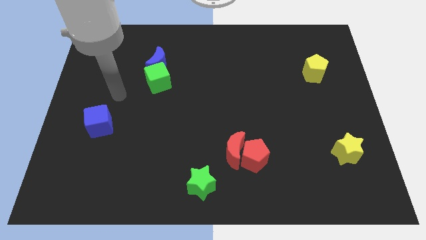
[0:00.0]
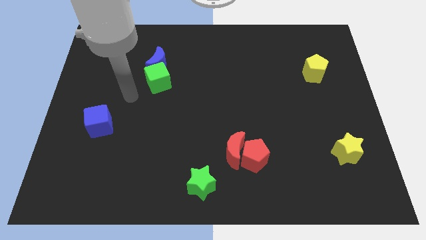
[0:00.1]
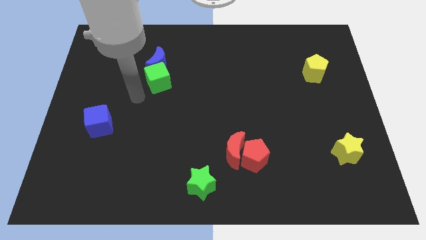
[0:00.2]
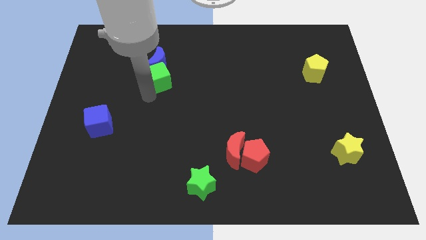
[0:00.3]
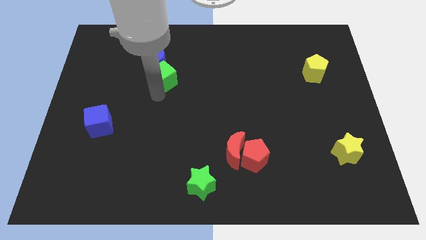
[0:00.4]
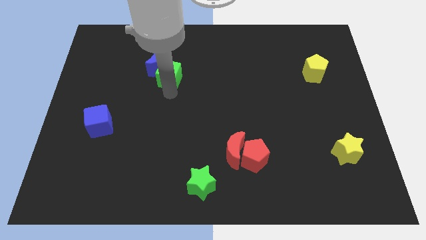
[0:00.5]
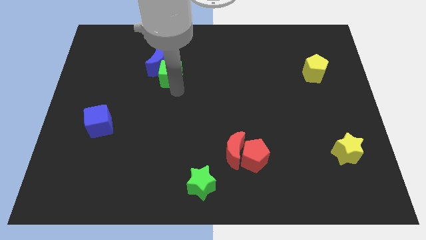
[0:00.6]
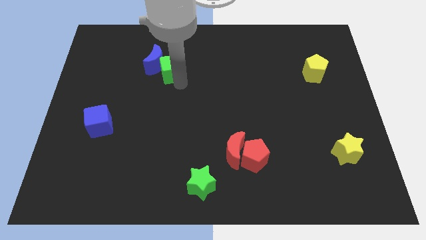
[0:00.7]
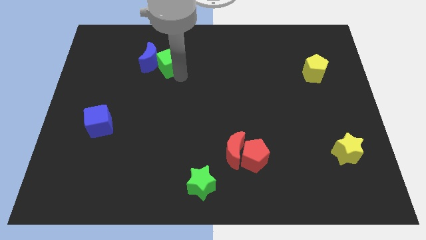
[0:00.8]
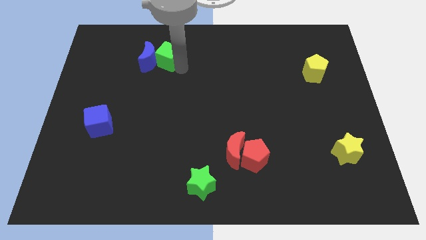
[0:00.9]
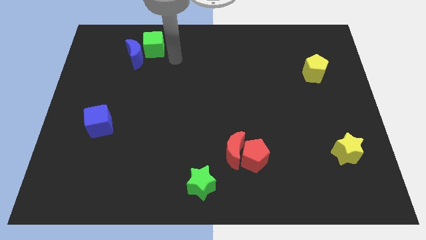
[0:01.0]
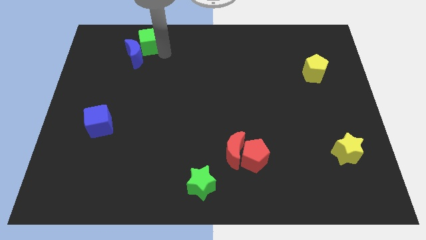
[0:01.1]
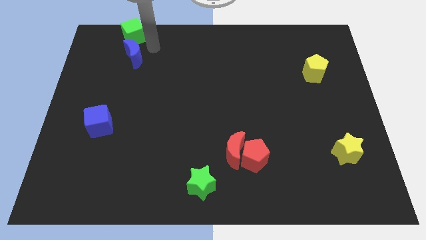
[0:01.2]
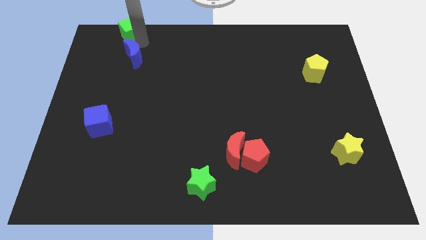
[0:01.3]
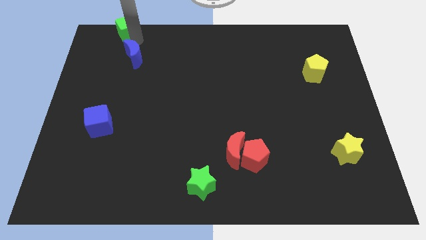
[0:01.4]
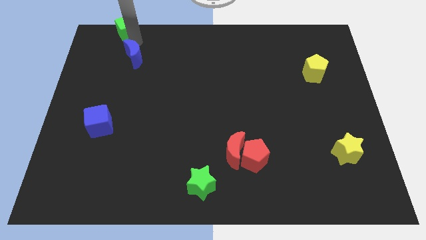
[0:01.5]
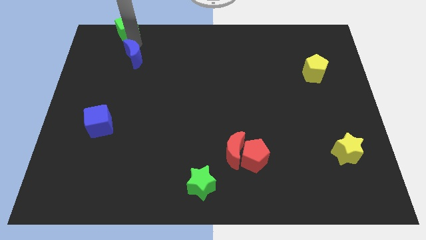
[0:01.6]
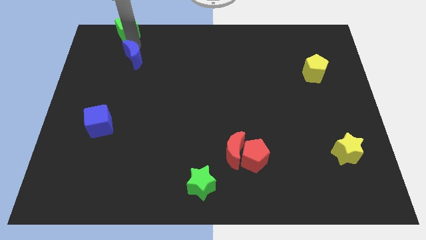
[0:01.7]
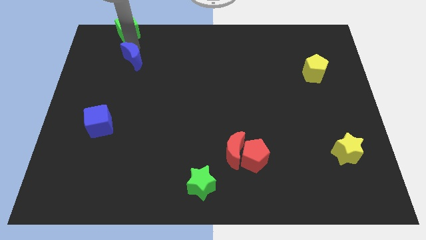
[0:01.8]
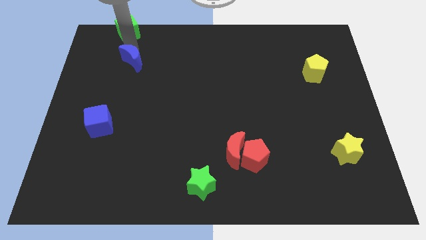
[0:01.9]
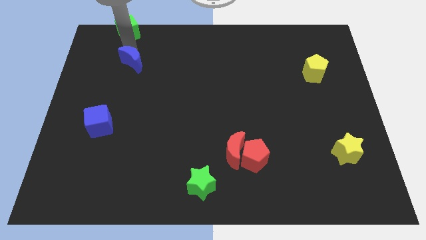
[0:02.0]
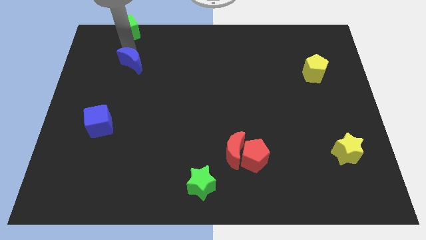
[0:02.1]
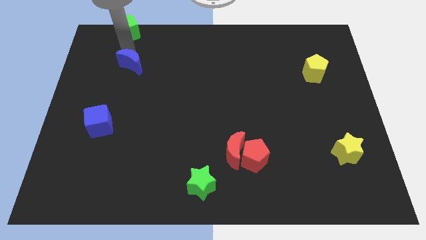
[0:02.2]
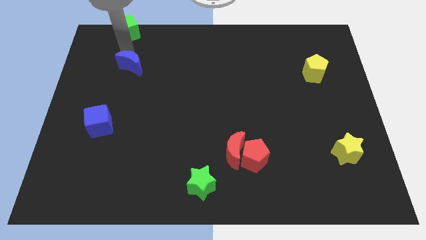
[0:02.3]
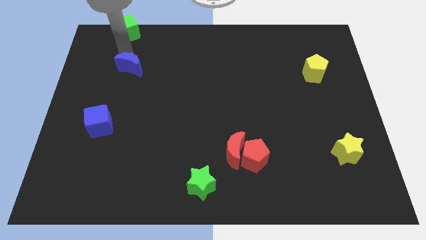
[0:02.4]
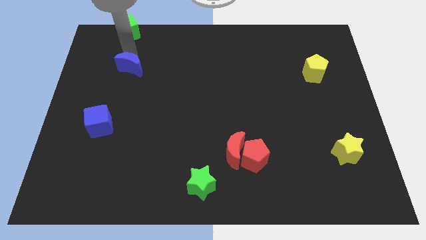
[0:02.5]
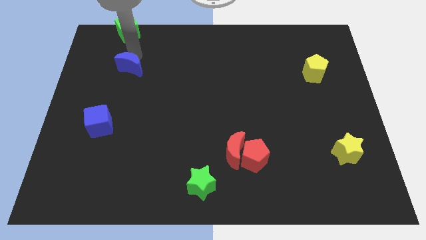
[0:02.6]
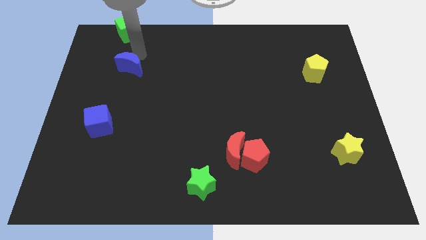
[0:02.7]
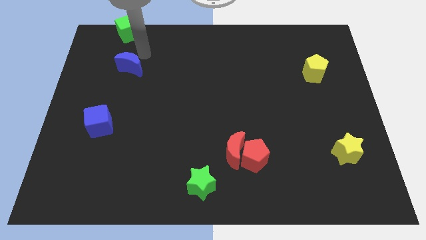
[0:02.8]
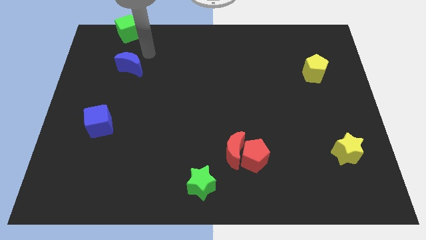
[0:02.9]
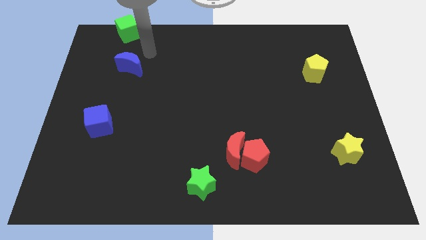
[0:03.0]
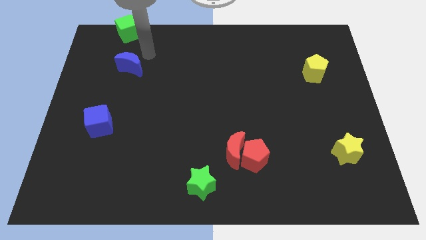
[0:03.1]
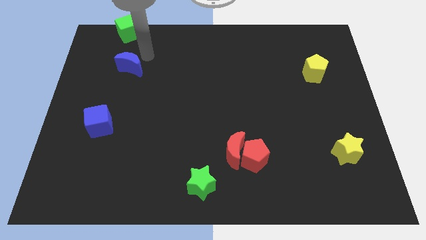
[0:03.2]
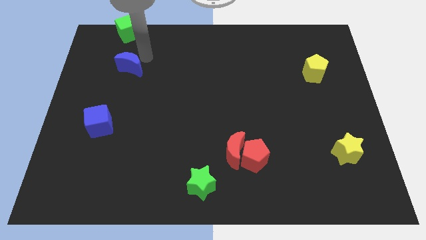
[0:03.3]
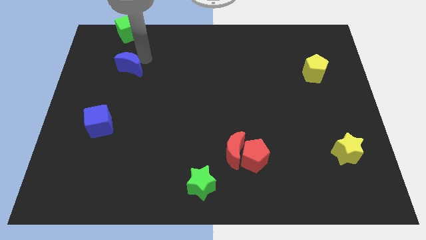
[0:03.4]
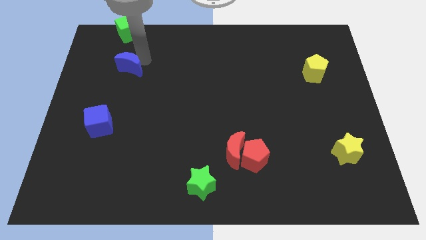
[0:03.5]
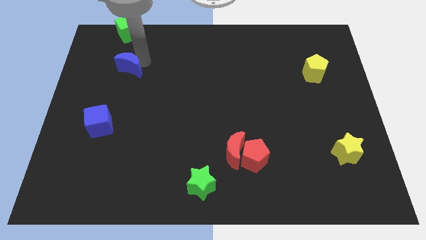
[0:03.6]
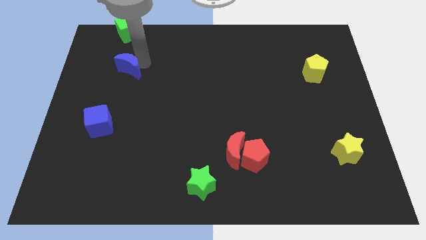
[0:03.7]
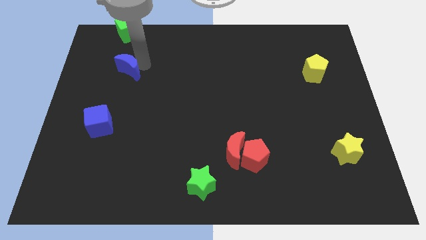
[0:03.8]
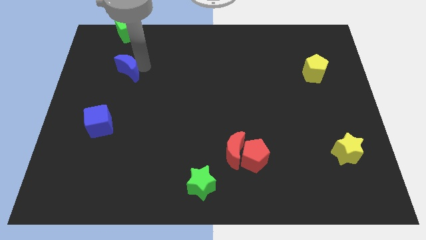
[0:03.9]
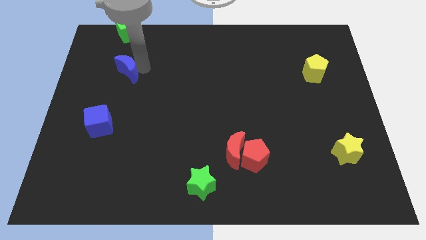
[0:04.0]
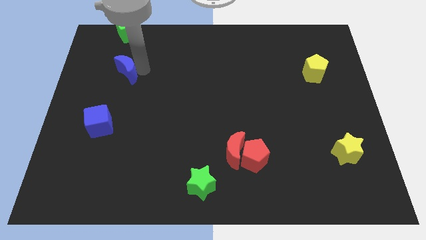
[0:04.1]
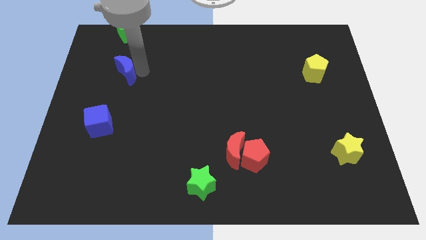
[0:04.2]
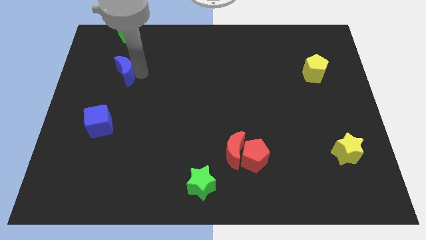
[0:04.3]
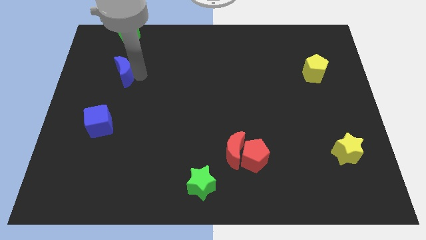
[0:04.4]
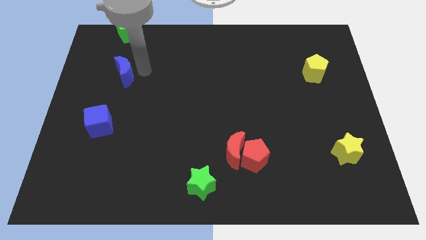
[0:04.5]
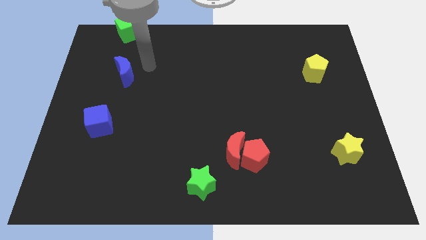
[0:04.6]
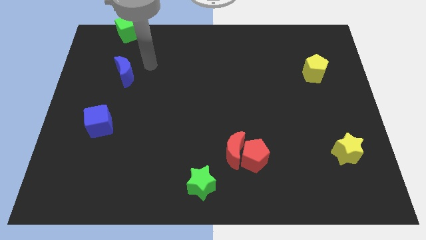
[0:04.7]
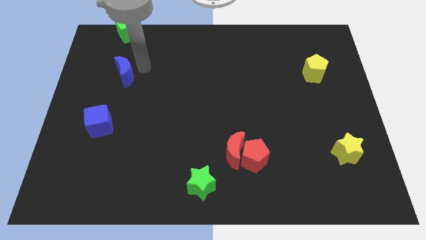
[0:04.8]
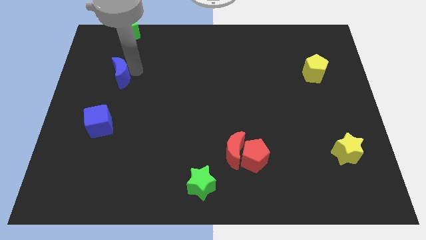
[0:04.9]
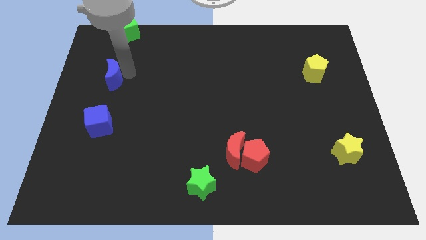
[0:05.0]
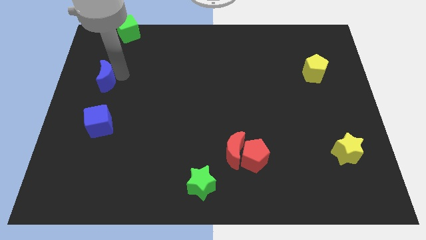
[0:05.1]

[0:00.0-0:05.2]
slide the blue moon to the left side of the board
